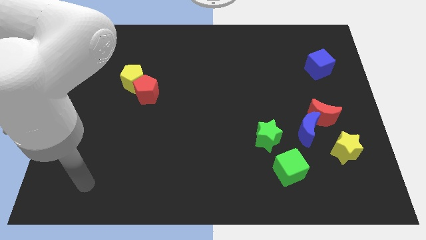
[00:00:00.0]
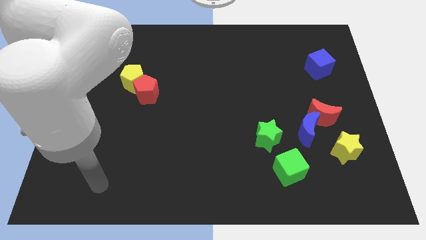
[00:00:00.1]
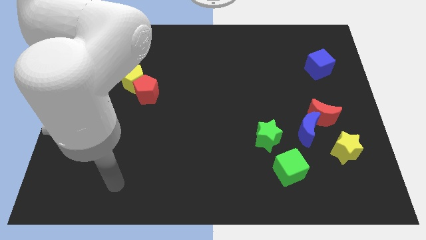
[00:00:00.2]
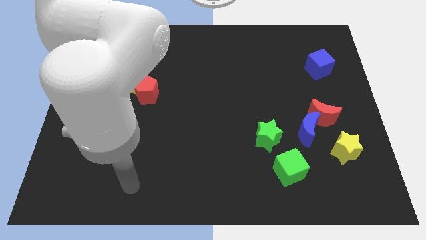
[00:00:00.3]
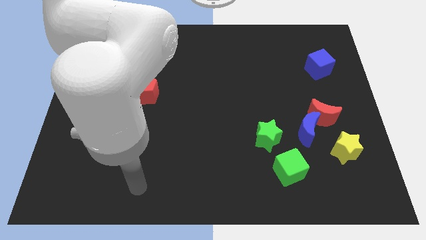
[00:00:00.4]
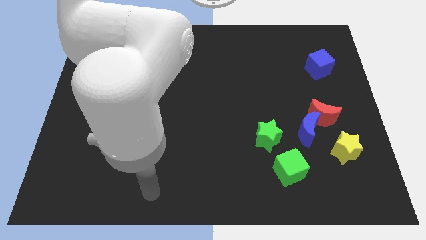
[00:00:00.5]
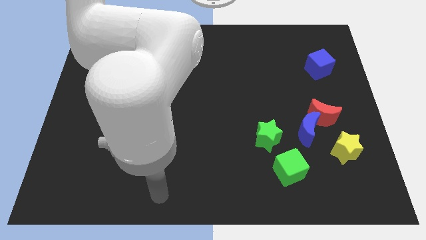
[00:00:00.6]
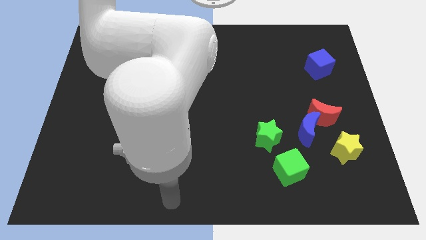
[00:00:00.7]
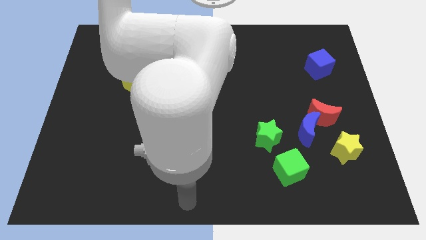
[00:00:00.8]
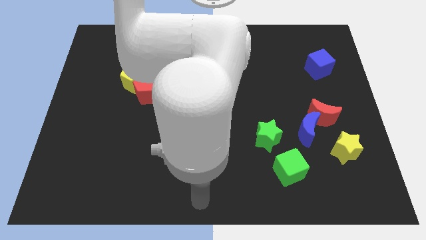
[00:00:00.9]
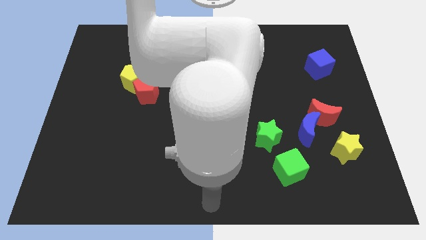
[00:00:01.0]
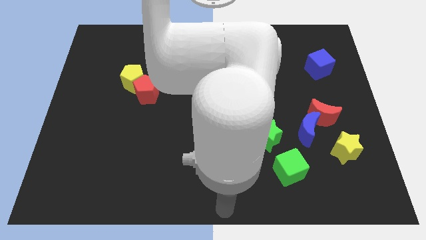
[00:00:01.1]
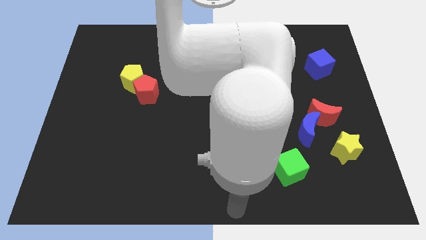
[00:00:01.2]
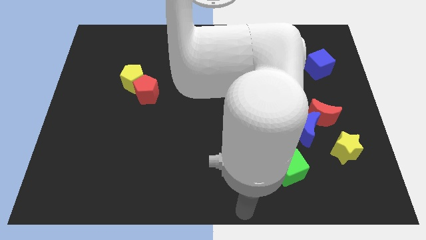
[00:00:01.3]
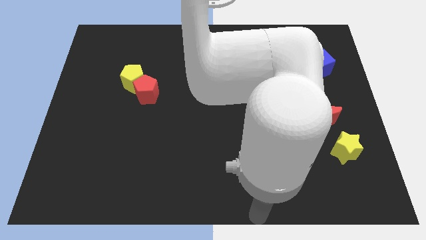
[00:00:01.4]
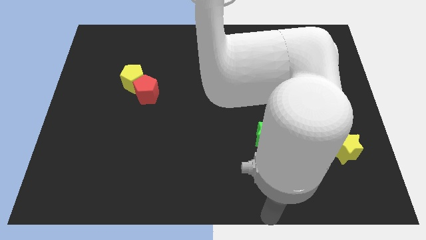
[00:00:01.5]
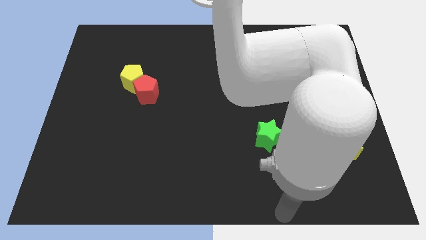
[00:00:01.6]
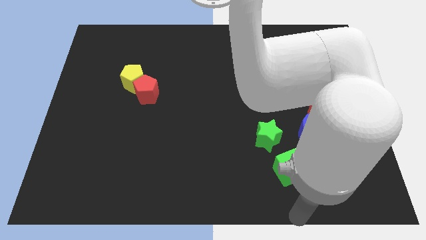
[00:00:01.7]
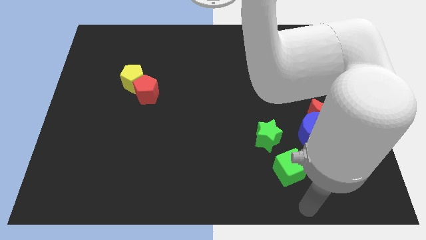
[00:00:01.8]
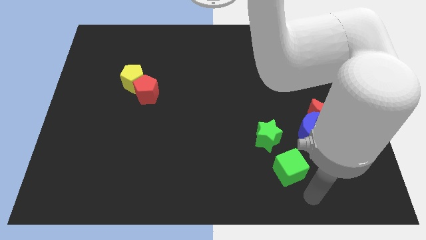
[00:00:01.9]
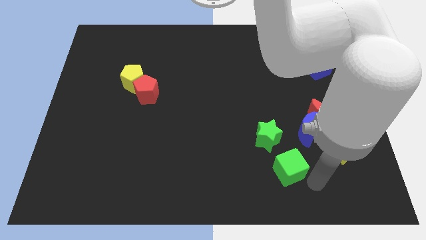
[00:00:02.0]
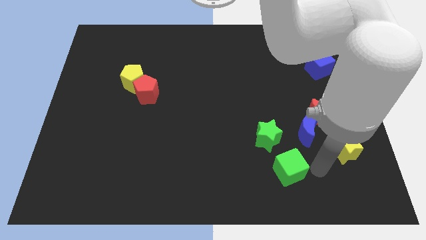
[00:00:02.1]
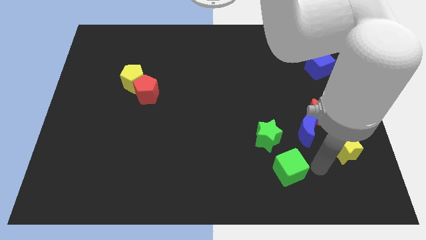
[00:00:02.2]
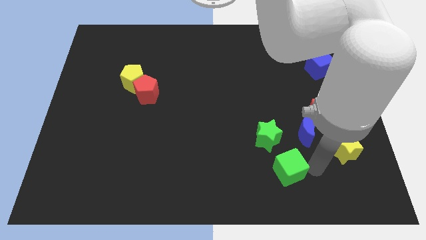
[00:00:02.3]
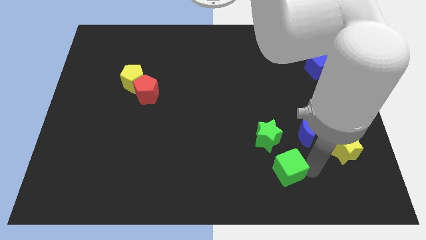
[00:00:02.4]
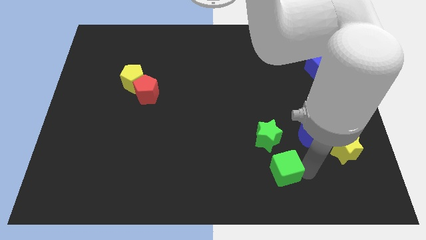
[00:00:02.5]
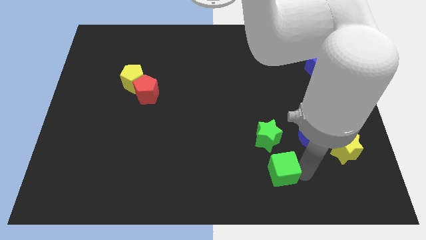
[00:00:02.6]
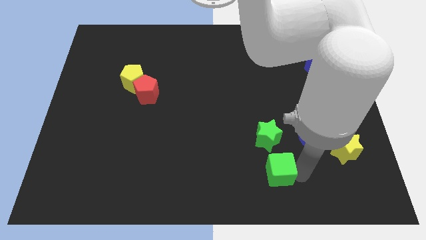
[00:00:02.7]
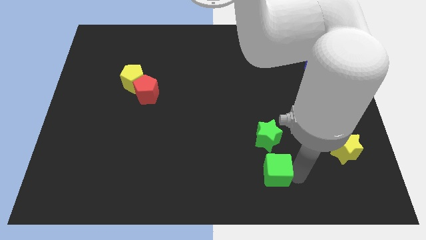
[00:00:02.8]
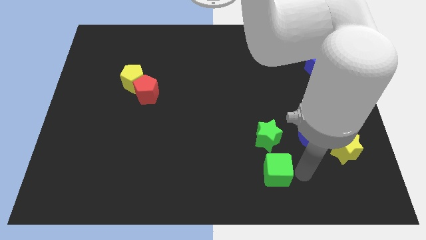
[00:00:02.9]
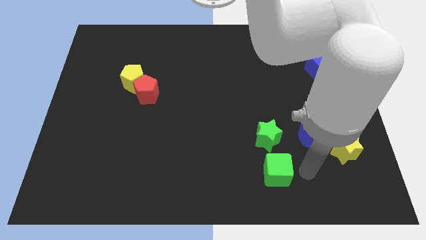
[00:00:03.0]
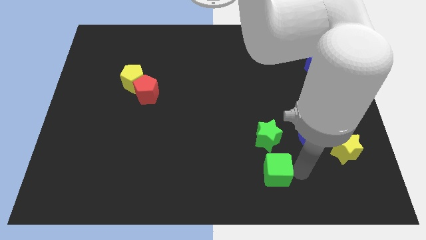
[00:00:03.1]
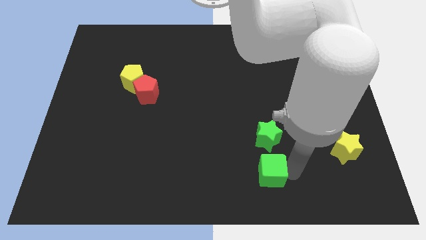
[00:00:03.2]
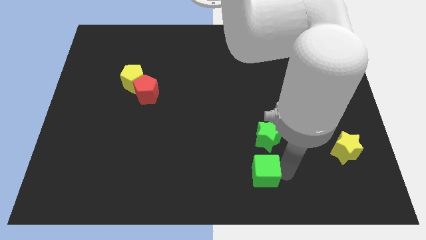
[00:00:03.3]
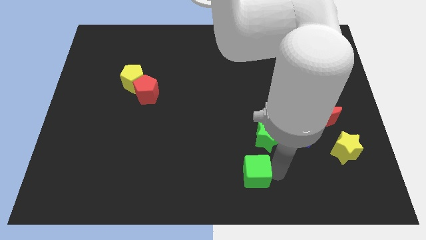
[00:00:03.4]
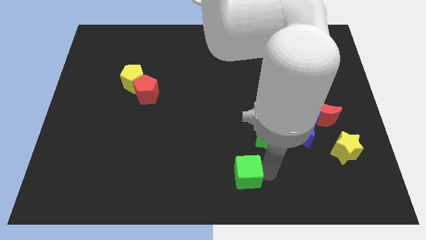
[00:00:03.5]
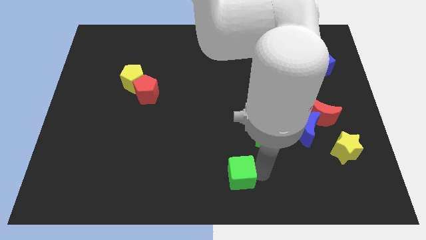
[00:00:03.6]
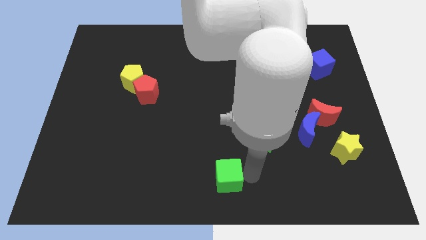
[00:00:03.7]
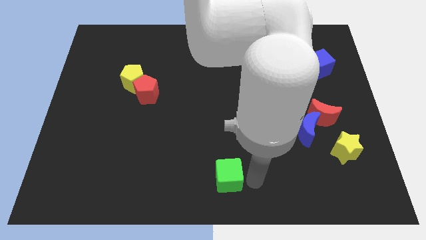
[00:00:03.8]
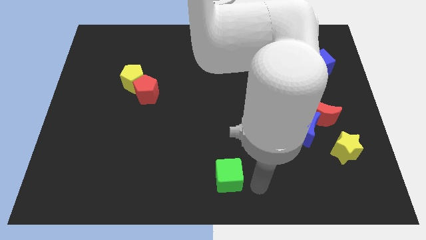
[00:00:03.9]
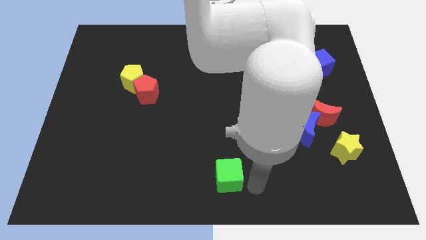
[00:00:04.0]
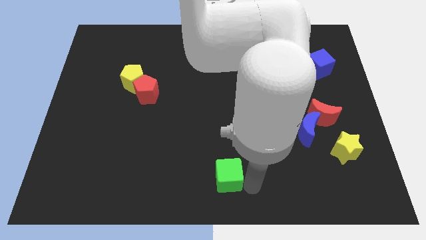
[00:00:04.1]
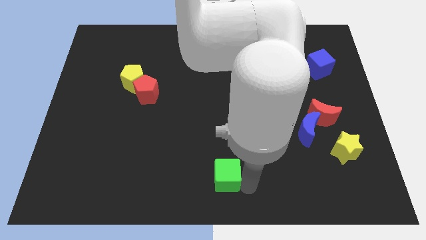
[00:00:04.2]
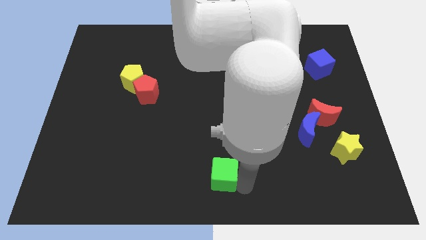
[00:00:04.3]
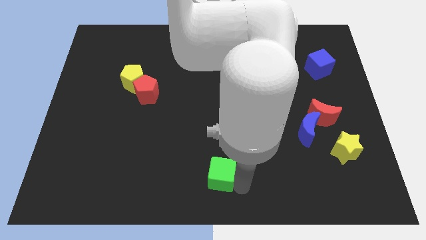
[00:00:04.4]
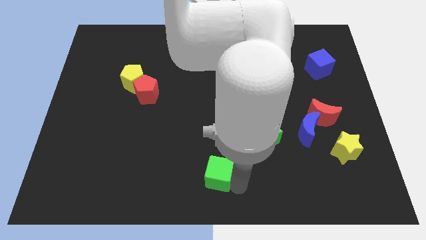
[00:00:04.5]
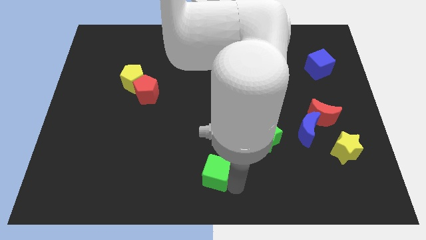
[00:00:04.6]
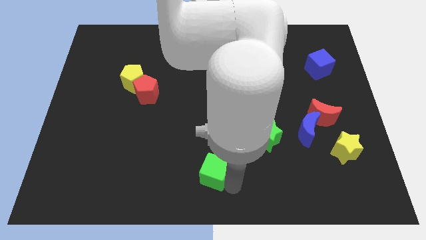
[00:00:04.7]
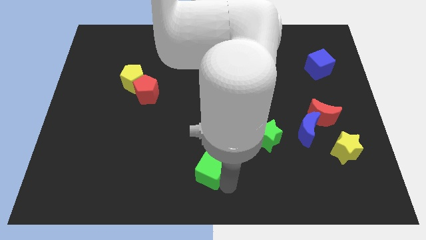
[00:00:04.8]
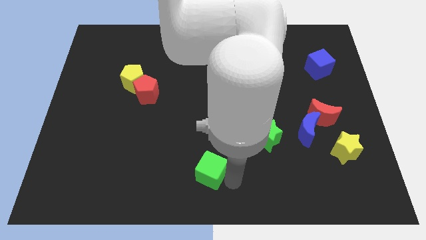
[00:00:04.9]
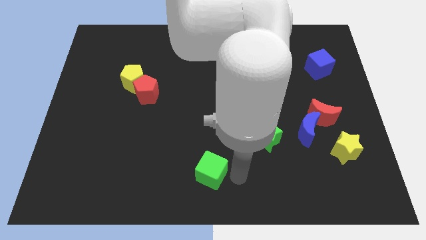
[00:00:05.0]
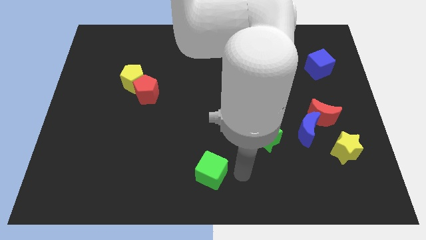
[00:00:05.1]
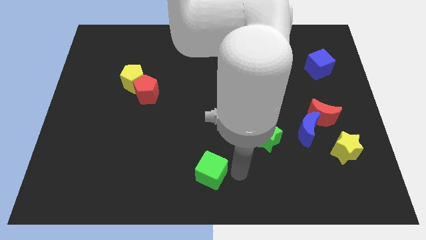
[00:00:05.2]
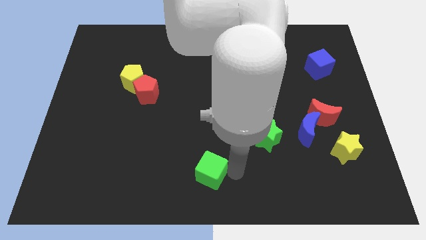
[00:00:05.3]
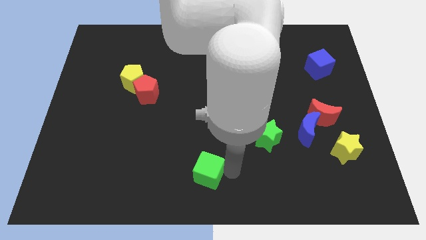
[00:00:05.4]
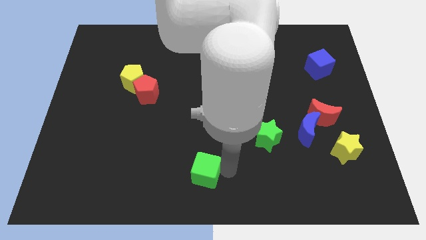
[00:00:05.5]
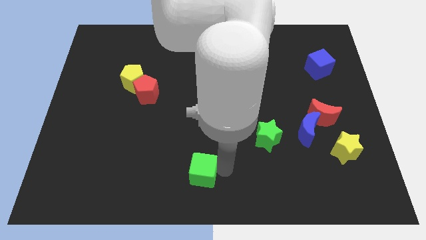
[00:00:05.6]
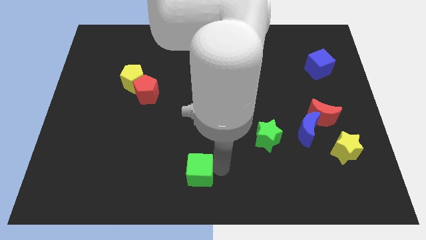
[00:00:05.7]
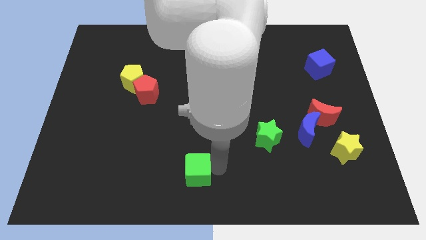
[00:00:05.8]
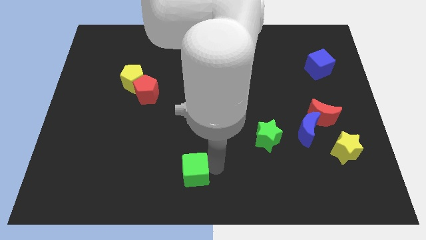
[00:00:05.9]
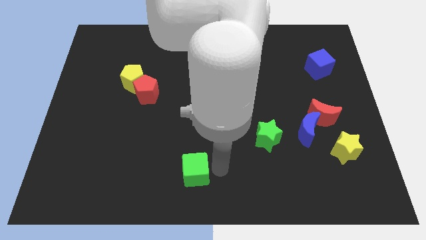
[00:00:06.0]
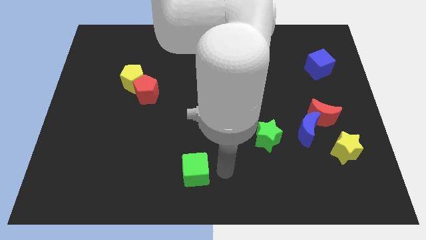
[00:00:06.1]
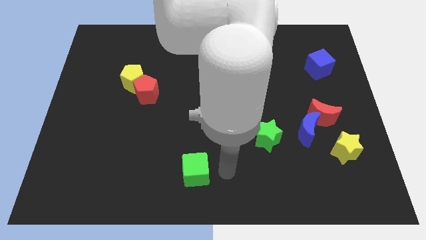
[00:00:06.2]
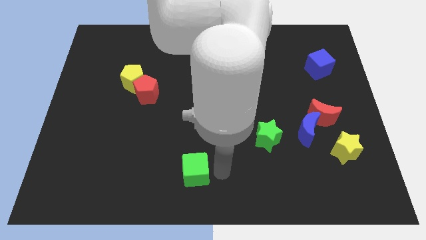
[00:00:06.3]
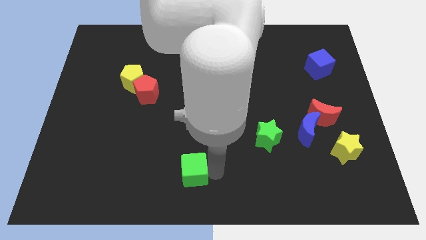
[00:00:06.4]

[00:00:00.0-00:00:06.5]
push the green cube to the left

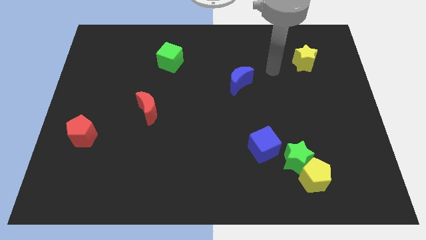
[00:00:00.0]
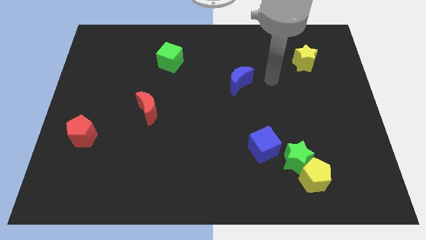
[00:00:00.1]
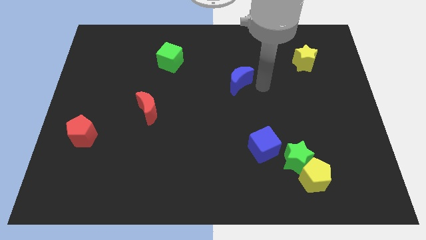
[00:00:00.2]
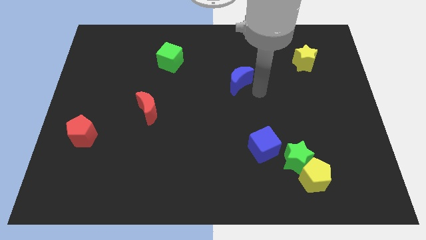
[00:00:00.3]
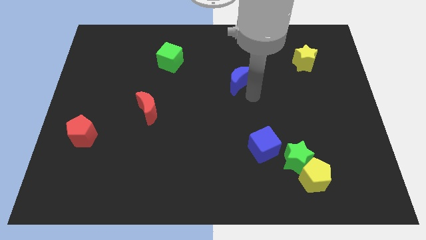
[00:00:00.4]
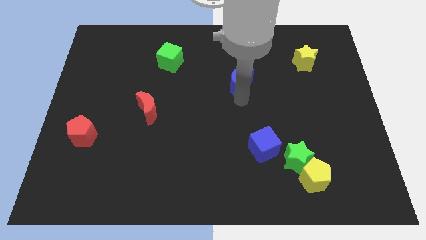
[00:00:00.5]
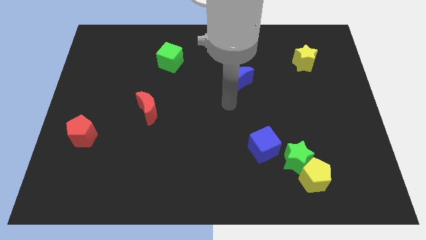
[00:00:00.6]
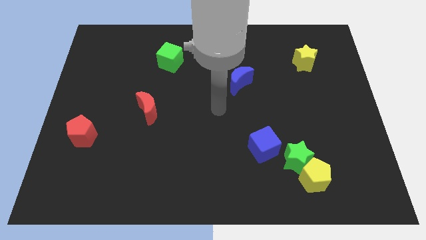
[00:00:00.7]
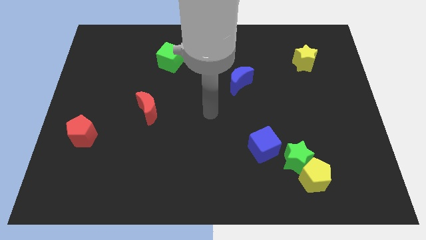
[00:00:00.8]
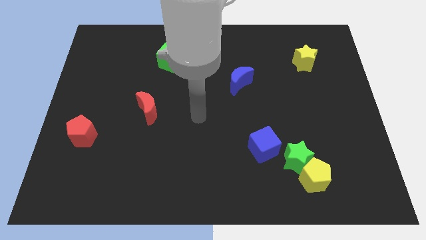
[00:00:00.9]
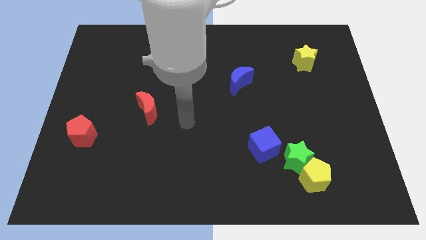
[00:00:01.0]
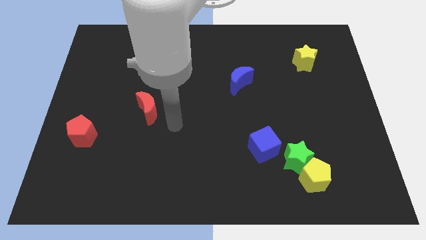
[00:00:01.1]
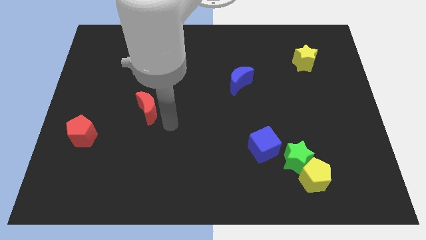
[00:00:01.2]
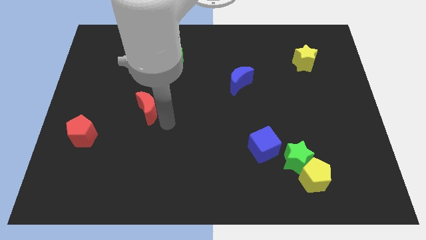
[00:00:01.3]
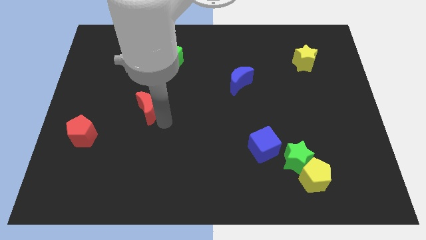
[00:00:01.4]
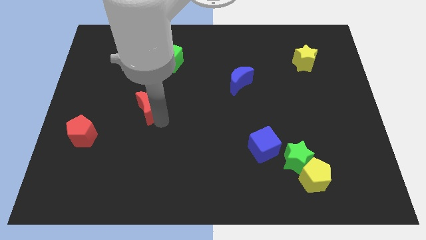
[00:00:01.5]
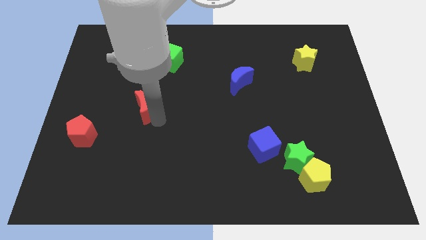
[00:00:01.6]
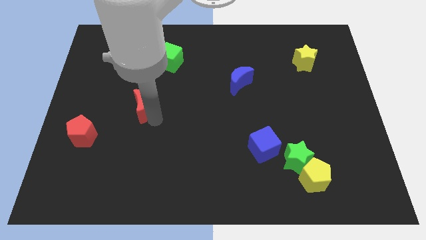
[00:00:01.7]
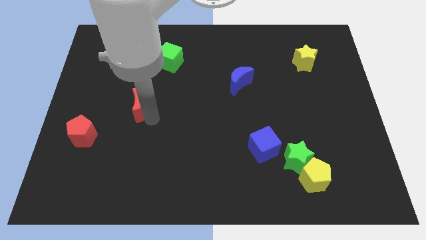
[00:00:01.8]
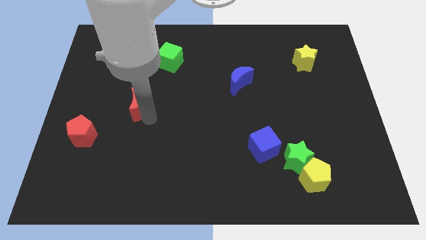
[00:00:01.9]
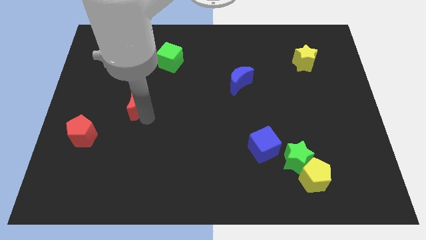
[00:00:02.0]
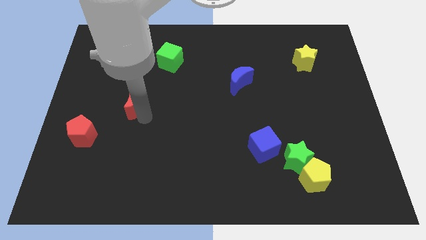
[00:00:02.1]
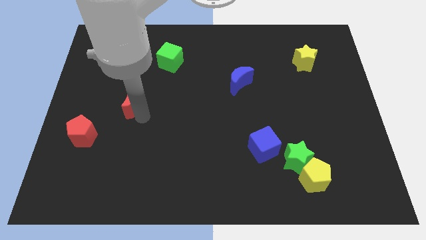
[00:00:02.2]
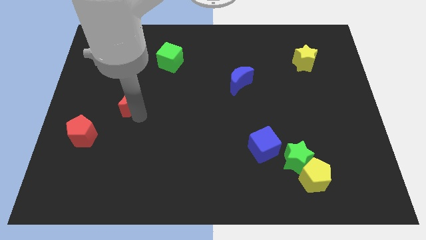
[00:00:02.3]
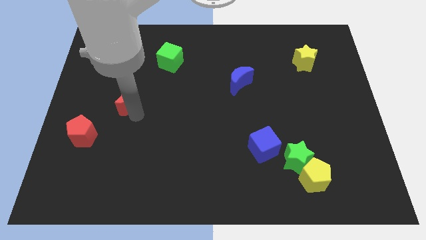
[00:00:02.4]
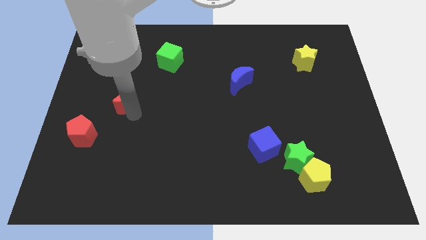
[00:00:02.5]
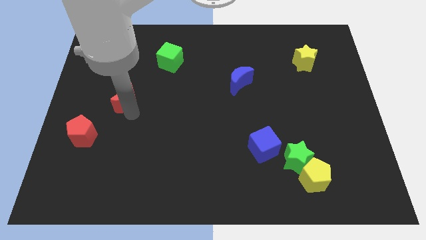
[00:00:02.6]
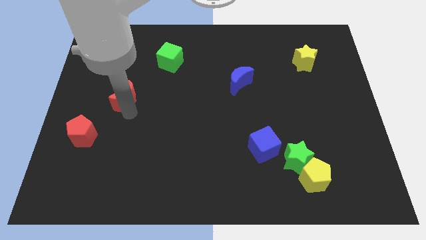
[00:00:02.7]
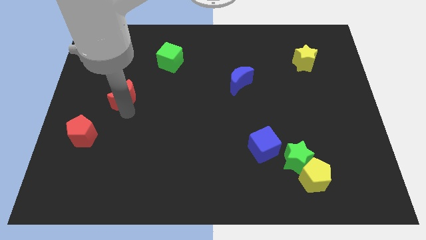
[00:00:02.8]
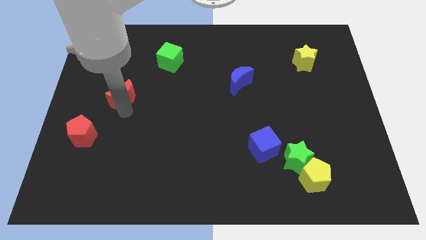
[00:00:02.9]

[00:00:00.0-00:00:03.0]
slightly move the red moon up and to the left diagonally
